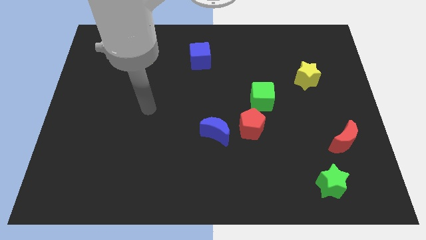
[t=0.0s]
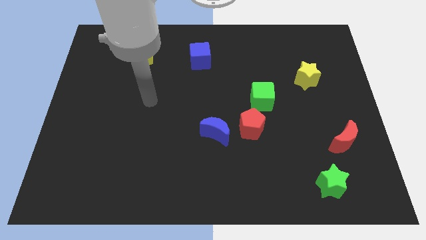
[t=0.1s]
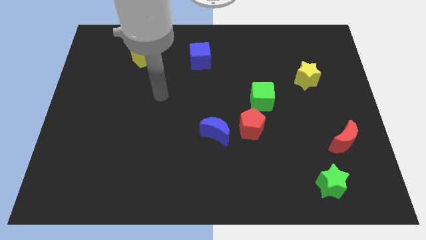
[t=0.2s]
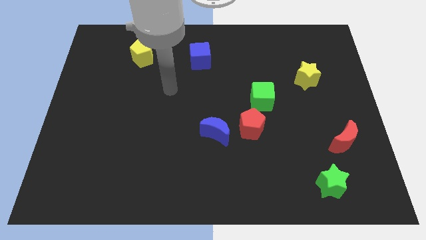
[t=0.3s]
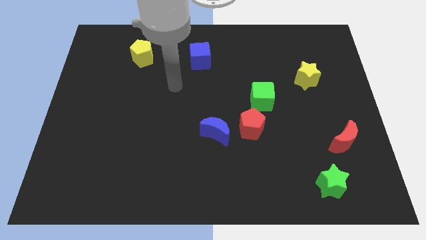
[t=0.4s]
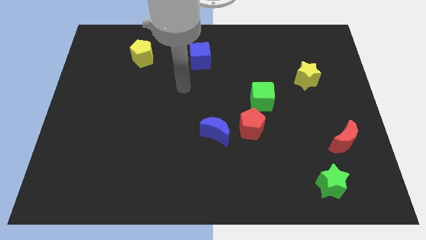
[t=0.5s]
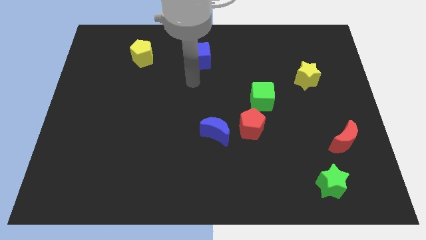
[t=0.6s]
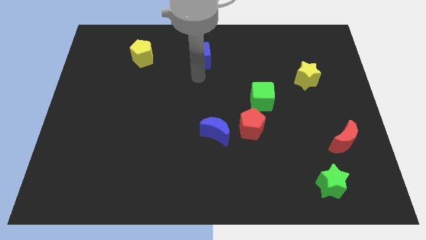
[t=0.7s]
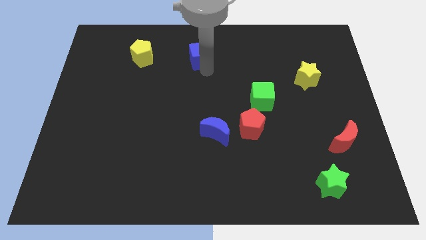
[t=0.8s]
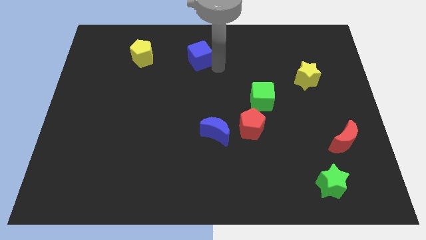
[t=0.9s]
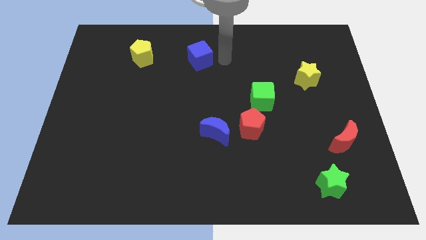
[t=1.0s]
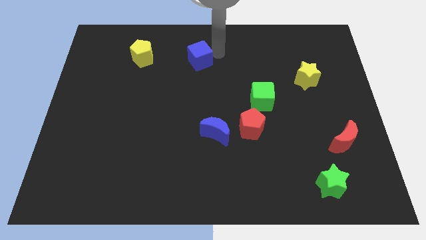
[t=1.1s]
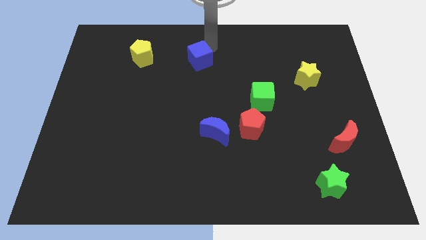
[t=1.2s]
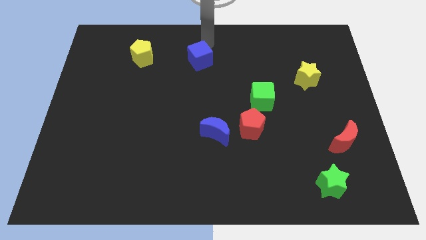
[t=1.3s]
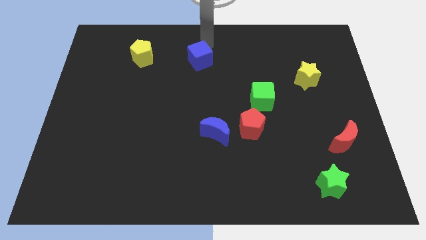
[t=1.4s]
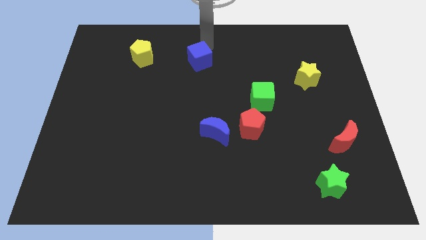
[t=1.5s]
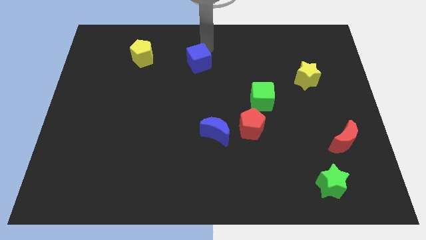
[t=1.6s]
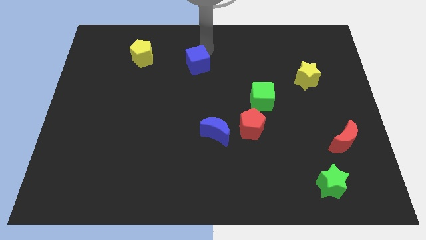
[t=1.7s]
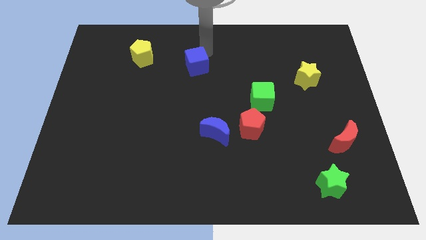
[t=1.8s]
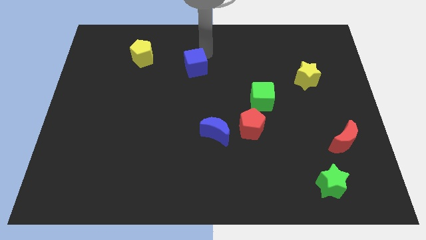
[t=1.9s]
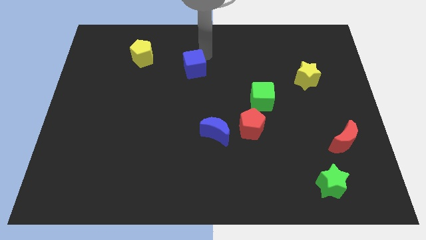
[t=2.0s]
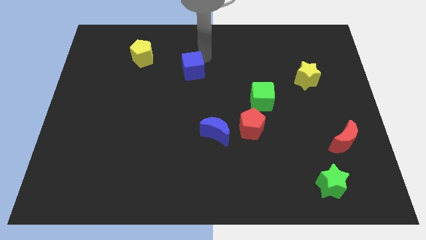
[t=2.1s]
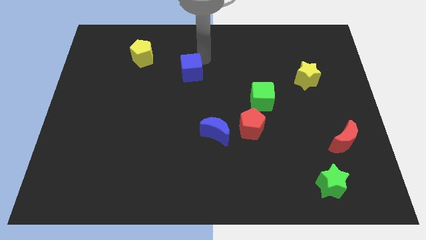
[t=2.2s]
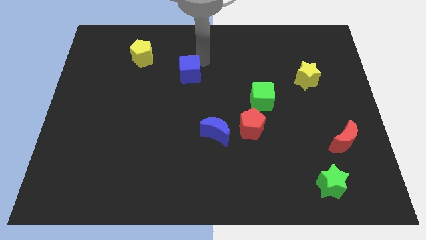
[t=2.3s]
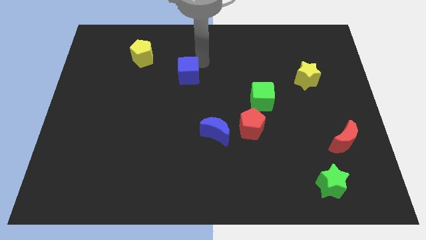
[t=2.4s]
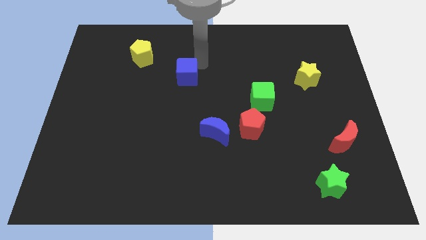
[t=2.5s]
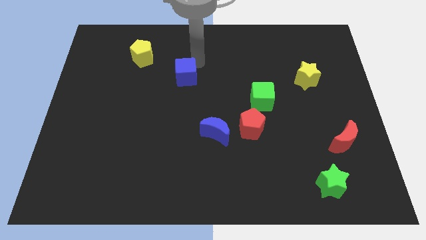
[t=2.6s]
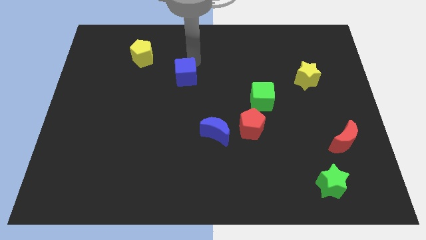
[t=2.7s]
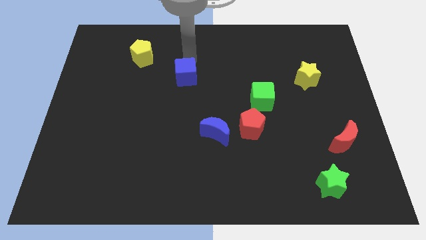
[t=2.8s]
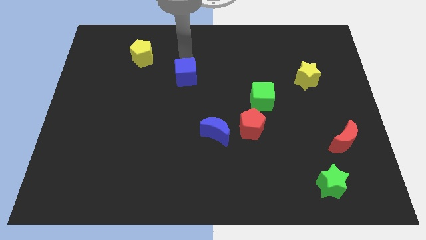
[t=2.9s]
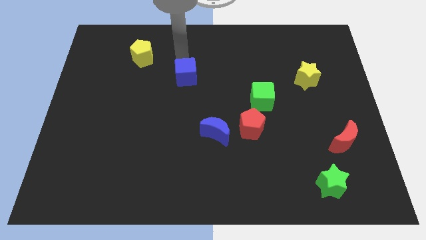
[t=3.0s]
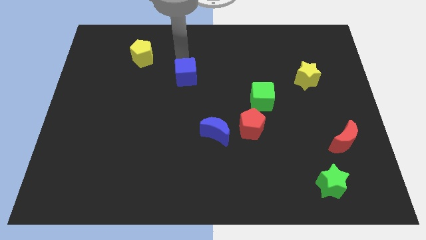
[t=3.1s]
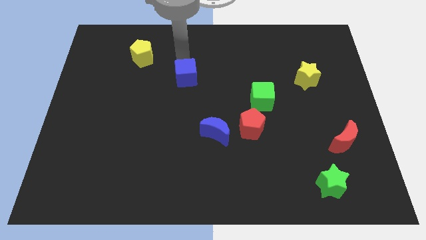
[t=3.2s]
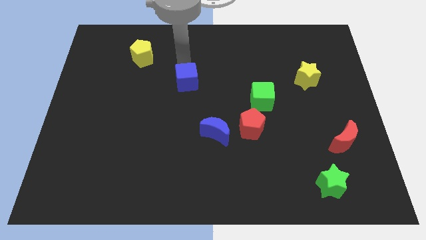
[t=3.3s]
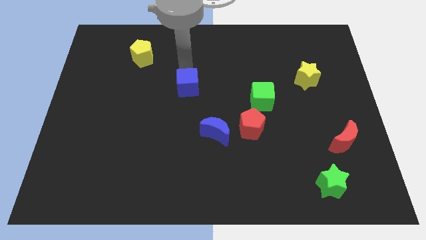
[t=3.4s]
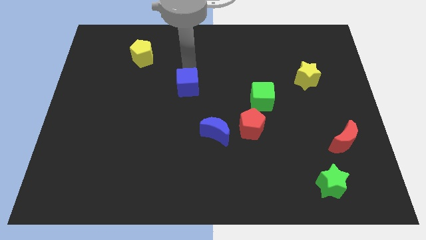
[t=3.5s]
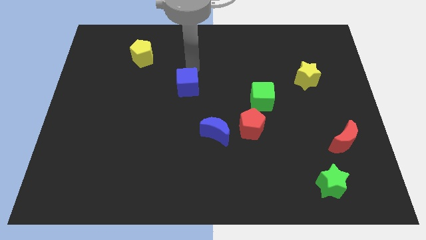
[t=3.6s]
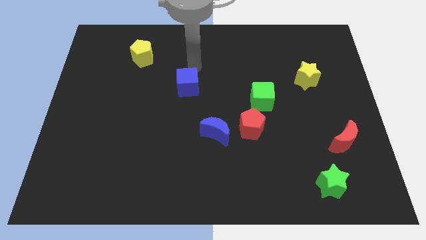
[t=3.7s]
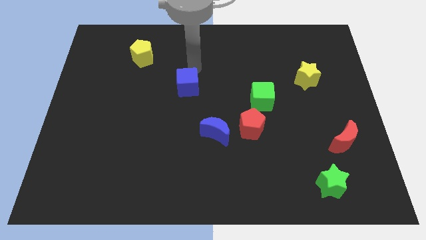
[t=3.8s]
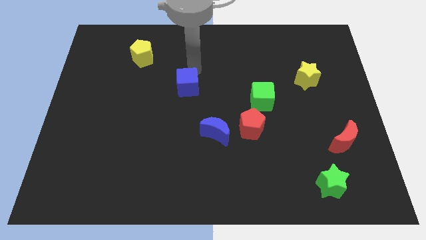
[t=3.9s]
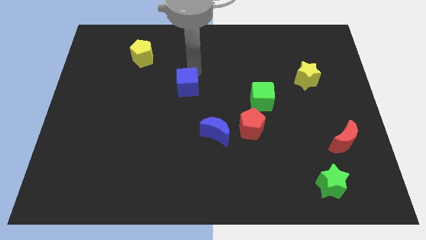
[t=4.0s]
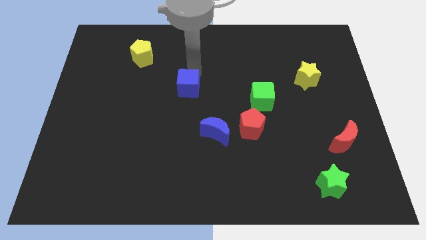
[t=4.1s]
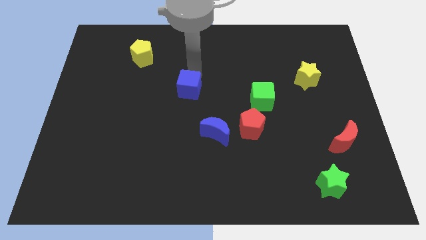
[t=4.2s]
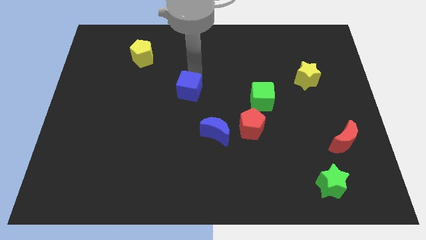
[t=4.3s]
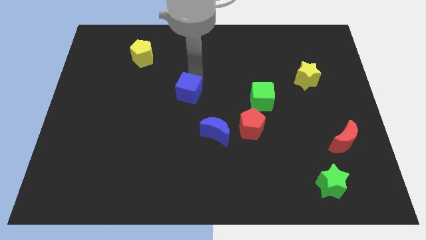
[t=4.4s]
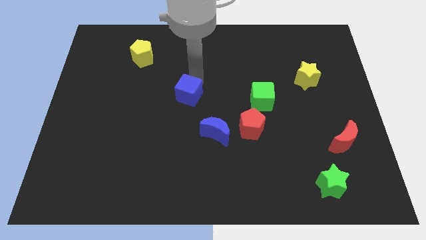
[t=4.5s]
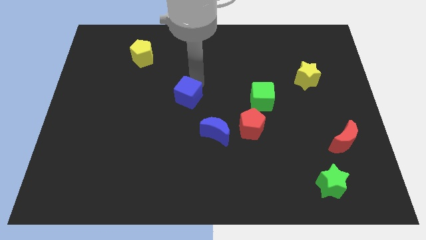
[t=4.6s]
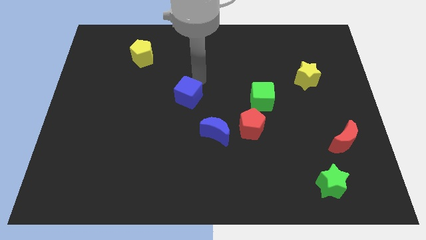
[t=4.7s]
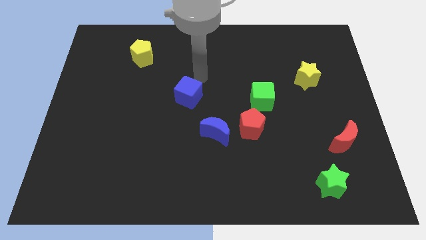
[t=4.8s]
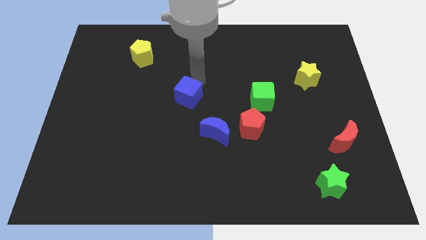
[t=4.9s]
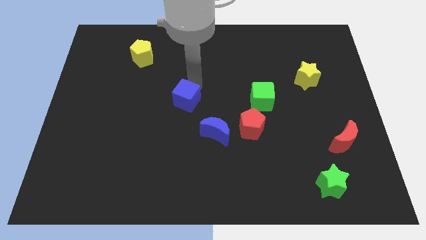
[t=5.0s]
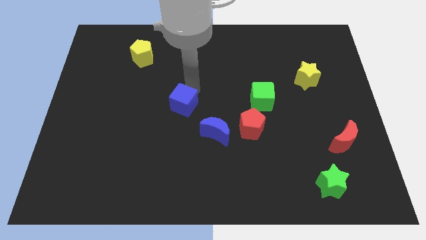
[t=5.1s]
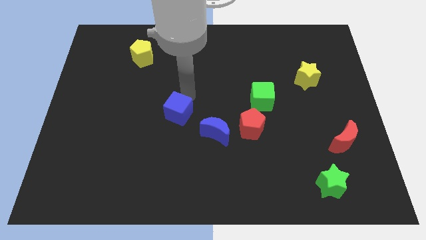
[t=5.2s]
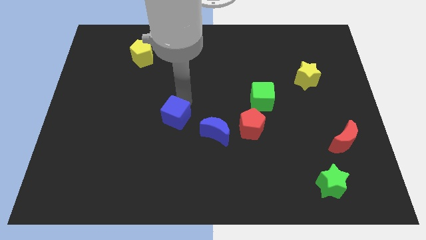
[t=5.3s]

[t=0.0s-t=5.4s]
move the blue cube left of the blue moon

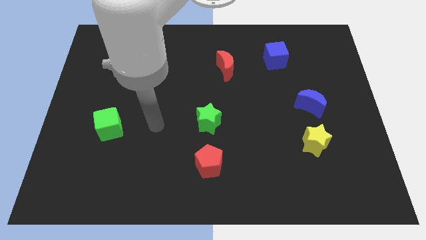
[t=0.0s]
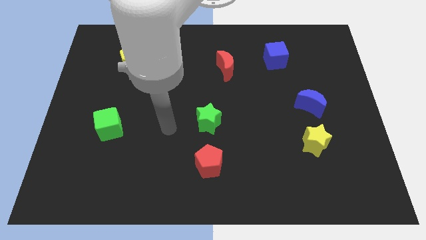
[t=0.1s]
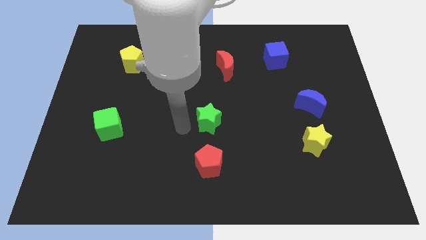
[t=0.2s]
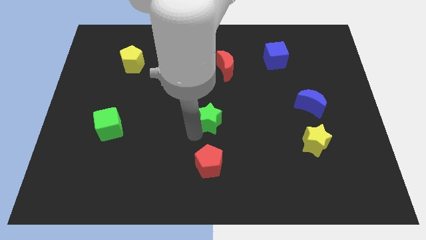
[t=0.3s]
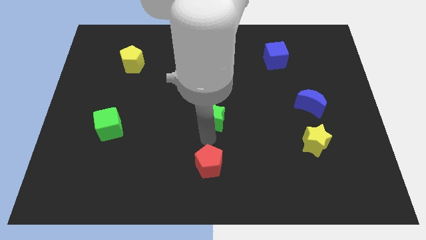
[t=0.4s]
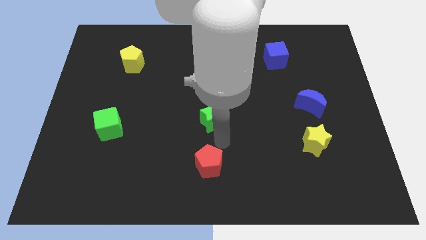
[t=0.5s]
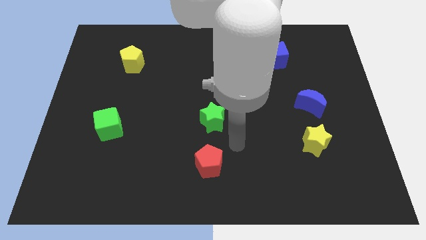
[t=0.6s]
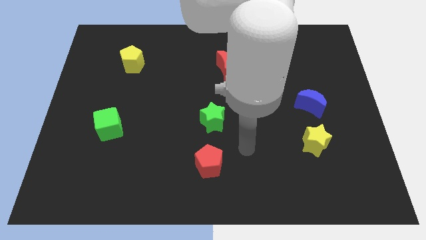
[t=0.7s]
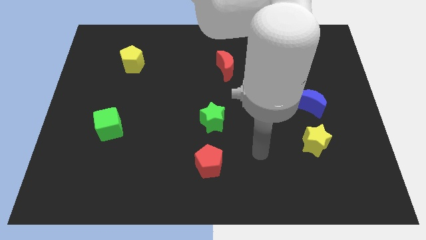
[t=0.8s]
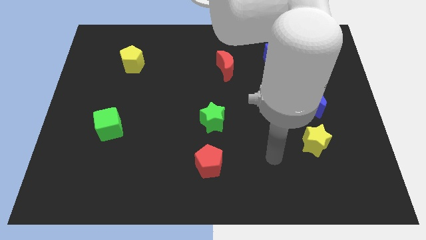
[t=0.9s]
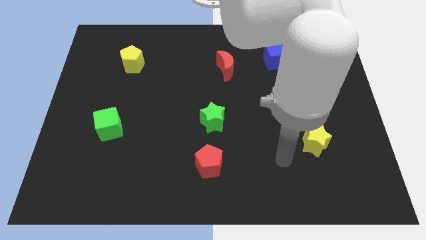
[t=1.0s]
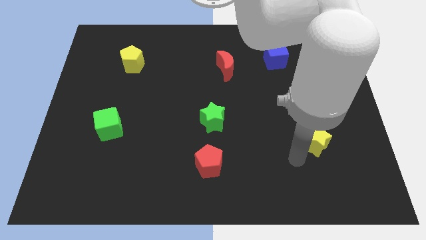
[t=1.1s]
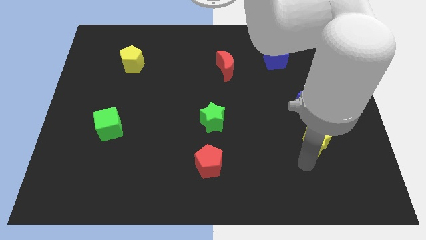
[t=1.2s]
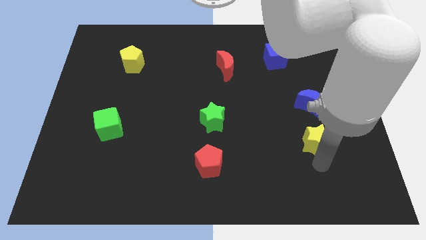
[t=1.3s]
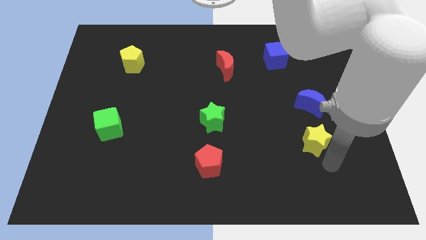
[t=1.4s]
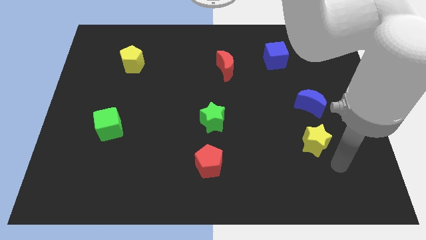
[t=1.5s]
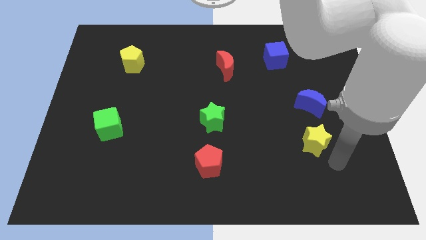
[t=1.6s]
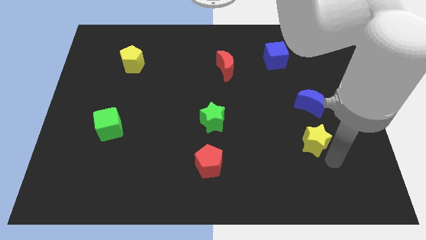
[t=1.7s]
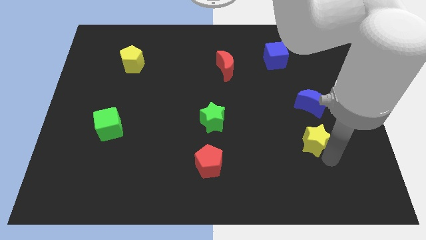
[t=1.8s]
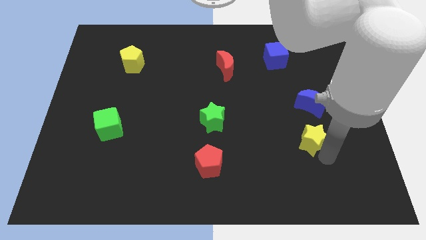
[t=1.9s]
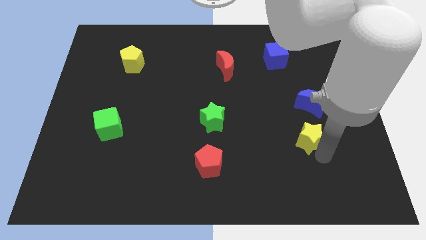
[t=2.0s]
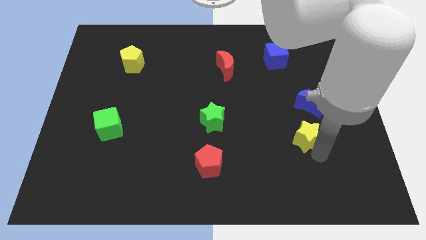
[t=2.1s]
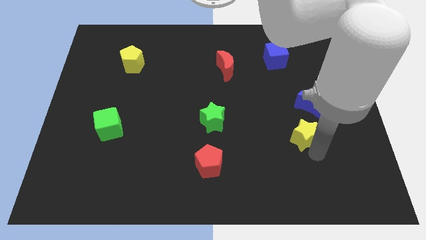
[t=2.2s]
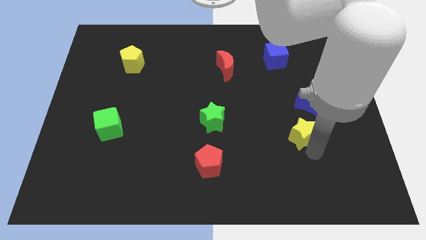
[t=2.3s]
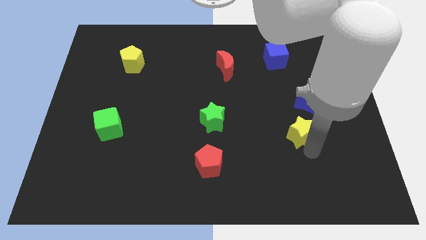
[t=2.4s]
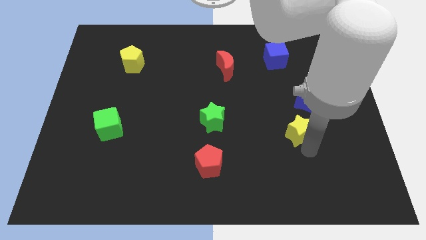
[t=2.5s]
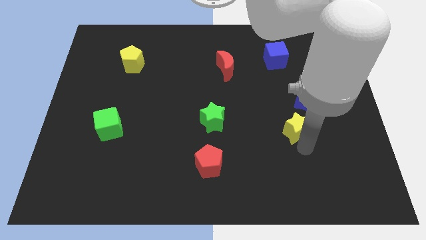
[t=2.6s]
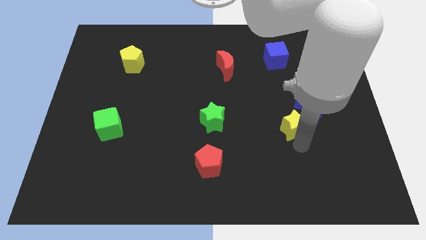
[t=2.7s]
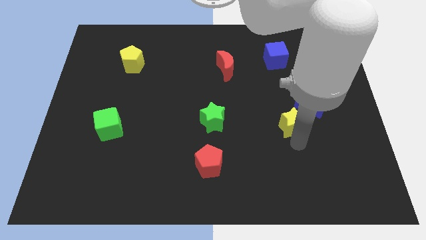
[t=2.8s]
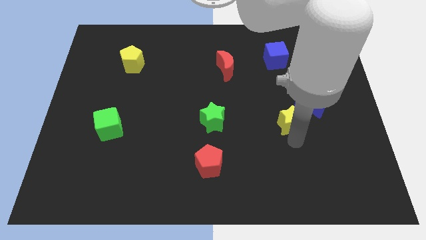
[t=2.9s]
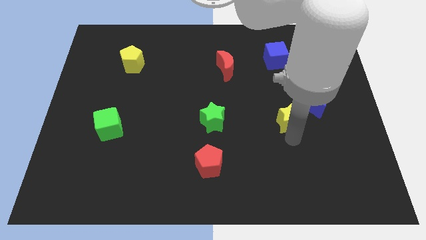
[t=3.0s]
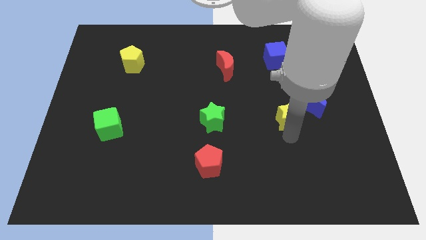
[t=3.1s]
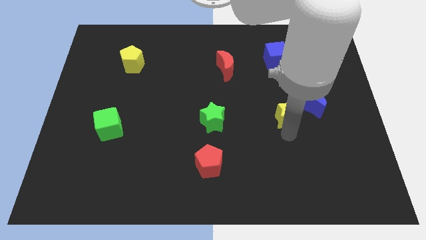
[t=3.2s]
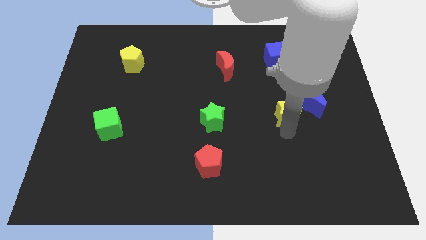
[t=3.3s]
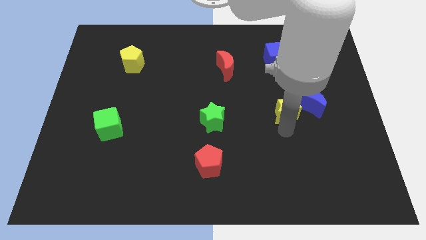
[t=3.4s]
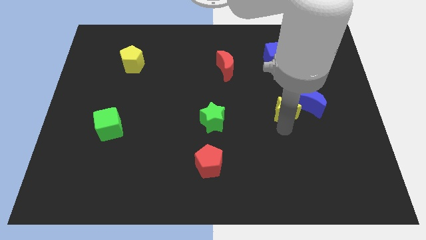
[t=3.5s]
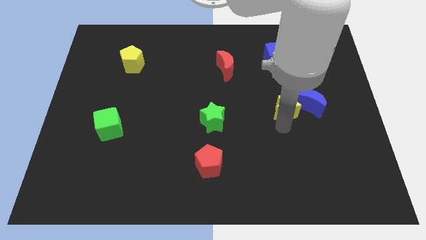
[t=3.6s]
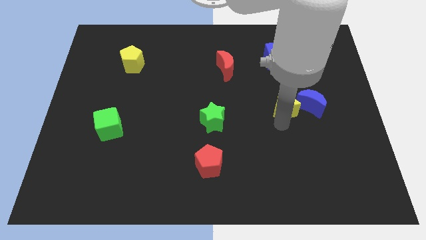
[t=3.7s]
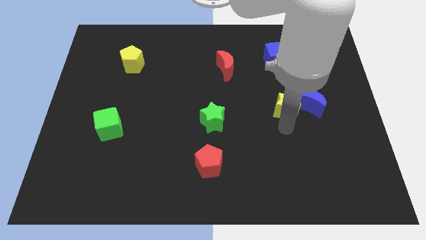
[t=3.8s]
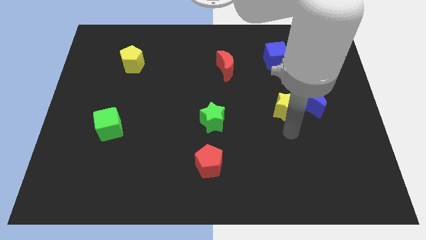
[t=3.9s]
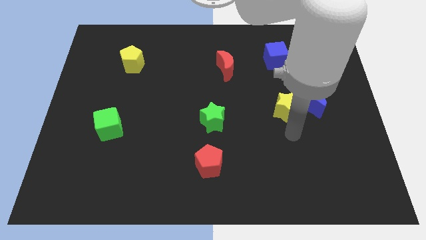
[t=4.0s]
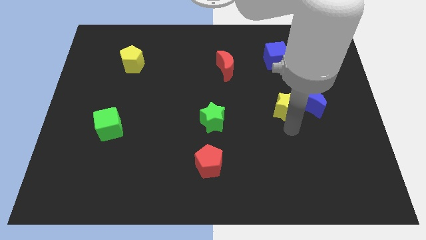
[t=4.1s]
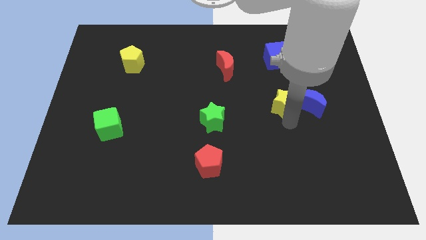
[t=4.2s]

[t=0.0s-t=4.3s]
move the yellow star below the blue cube
